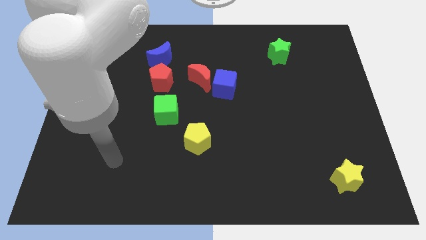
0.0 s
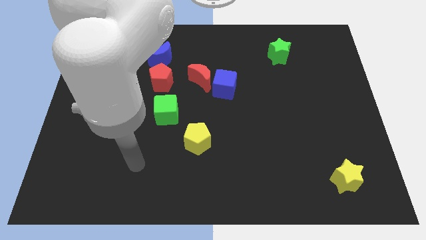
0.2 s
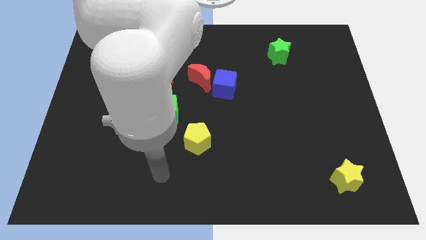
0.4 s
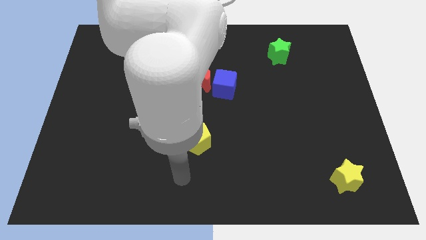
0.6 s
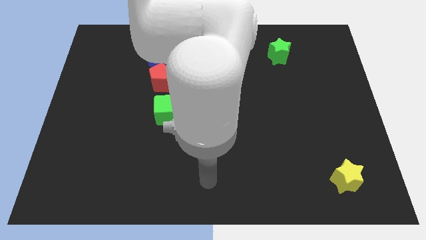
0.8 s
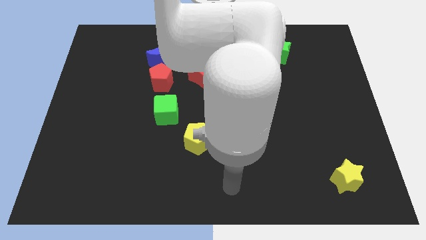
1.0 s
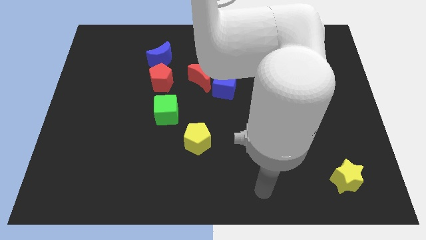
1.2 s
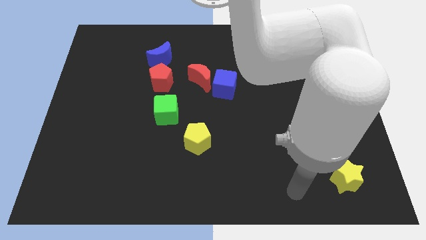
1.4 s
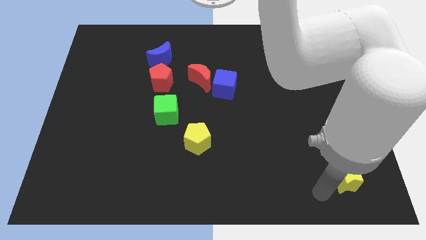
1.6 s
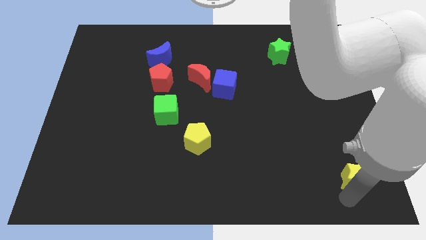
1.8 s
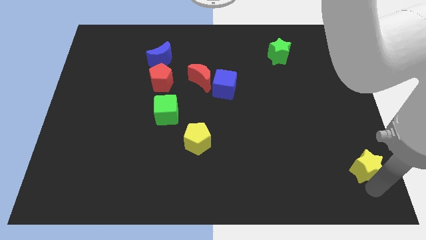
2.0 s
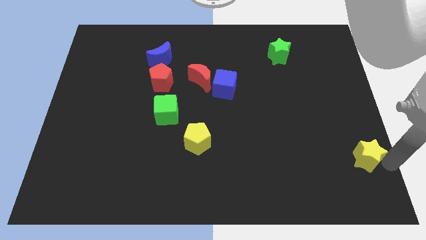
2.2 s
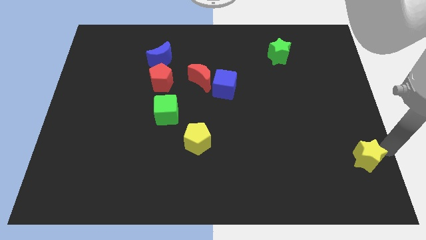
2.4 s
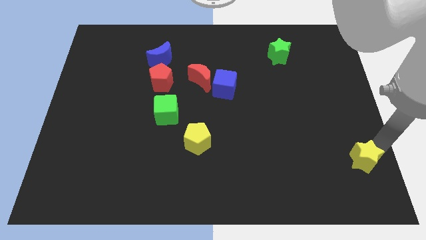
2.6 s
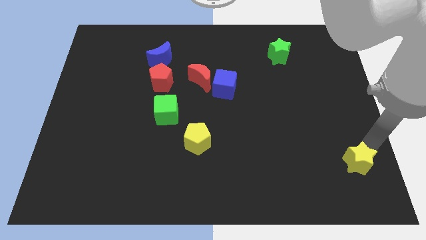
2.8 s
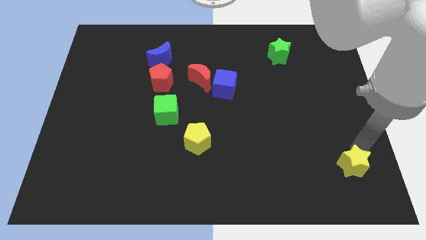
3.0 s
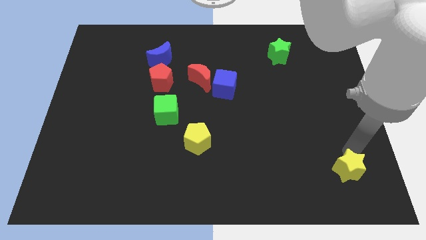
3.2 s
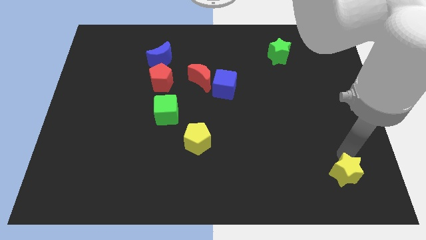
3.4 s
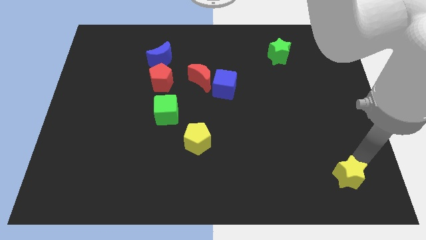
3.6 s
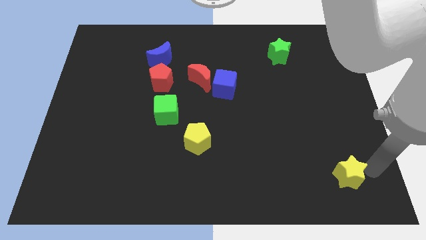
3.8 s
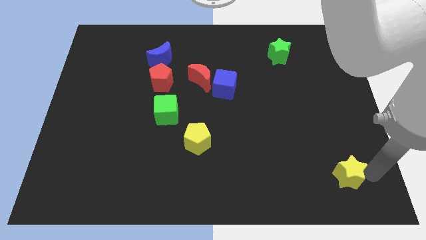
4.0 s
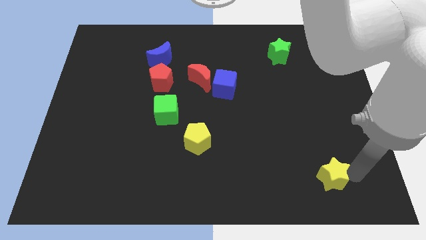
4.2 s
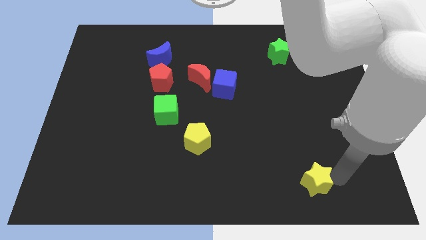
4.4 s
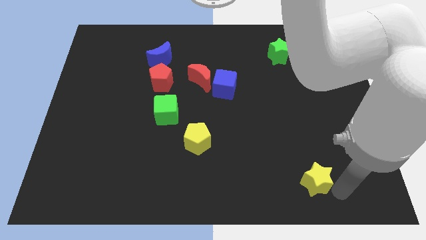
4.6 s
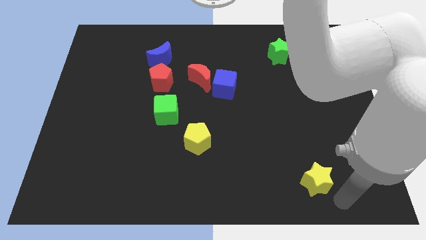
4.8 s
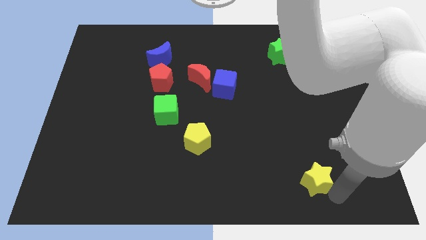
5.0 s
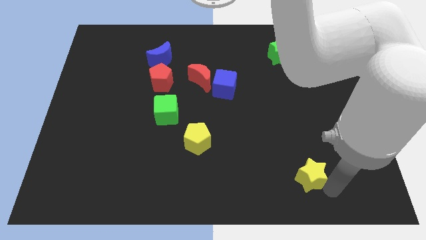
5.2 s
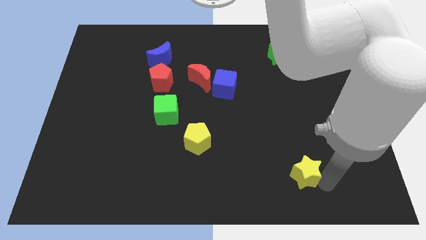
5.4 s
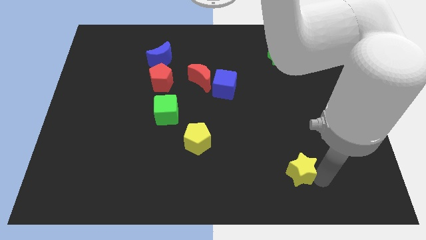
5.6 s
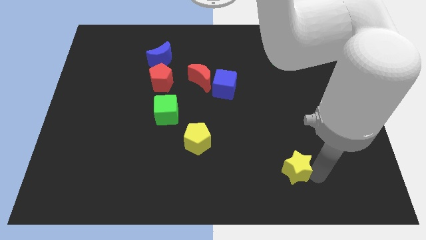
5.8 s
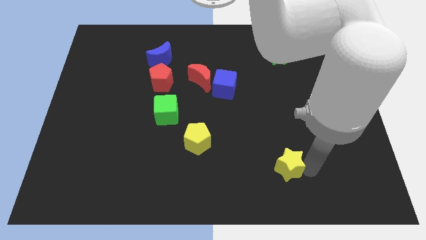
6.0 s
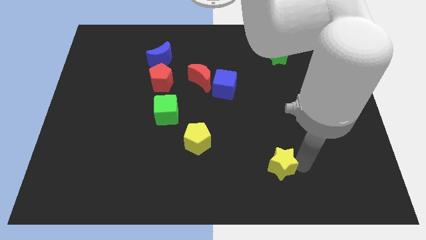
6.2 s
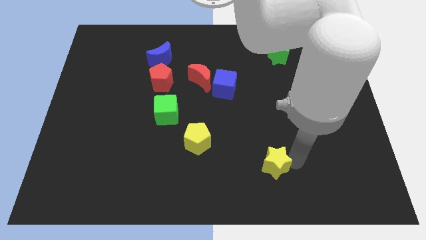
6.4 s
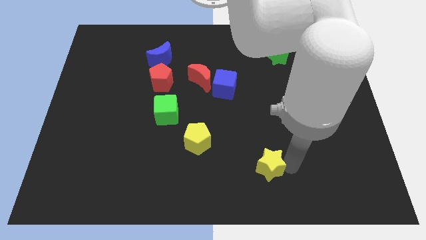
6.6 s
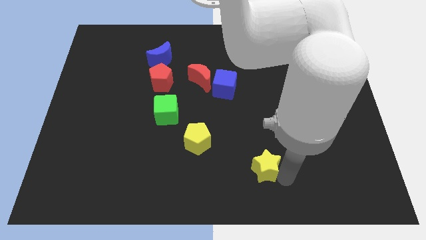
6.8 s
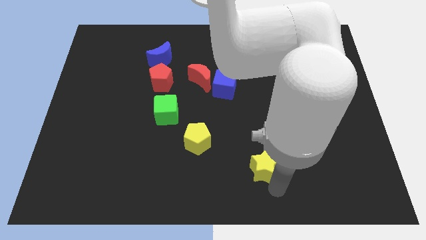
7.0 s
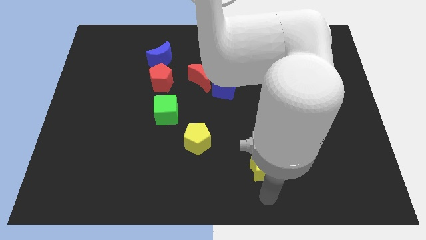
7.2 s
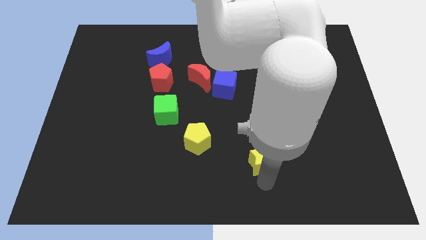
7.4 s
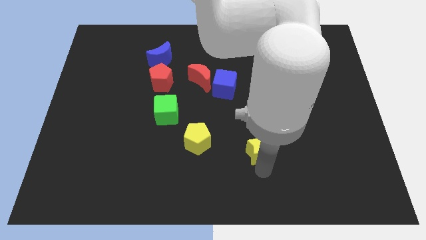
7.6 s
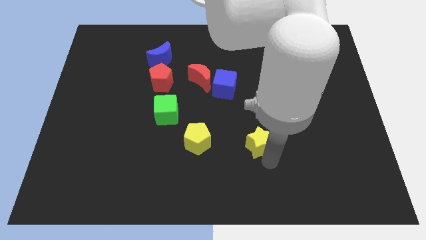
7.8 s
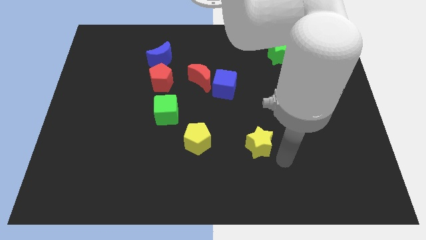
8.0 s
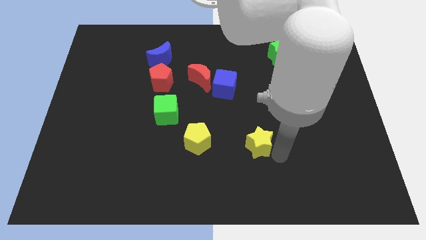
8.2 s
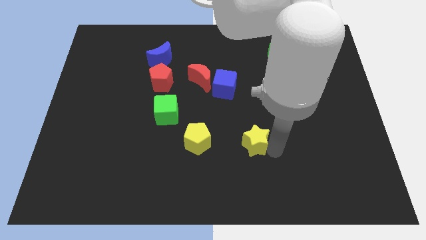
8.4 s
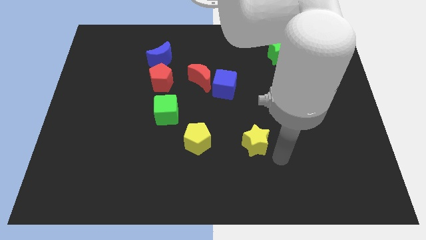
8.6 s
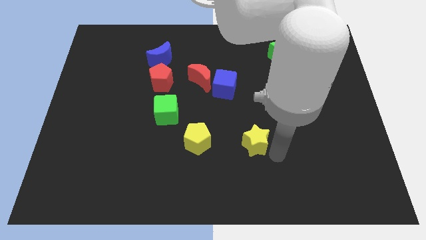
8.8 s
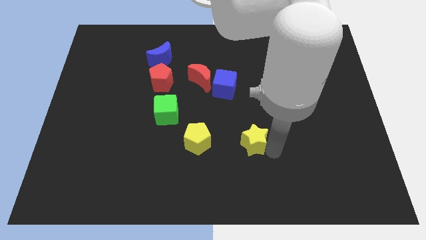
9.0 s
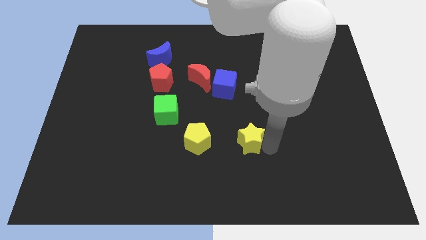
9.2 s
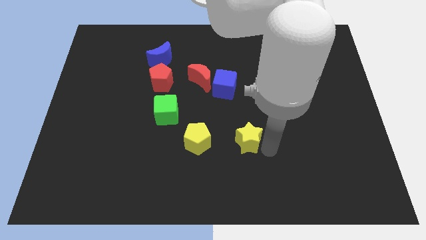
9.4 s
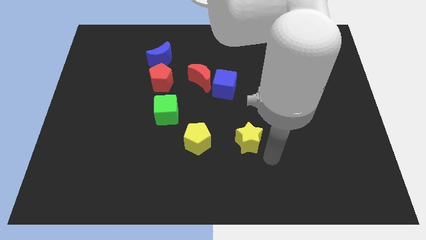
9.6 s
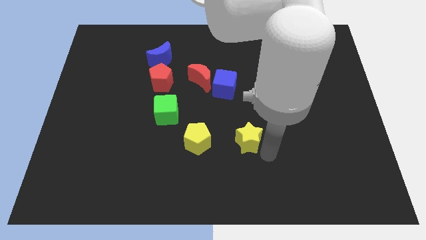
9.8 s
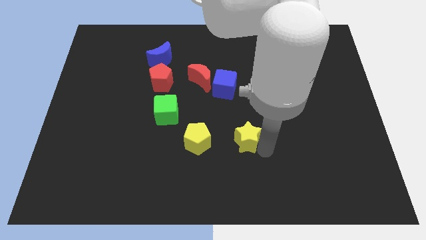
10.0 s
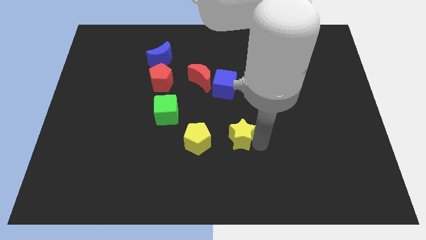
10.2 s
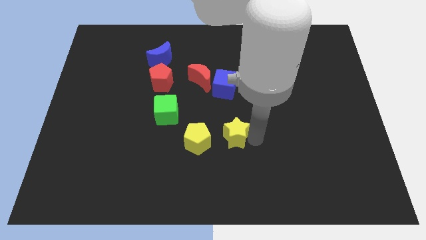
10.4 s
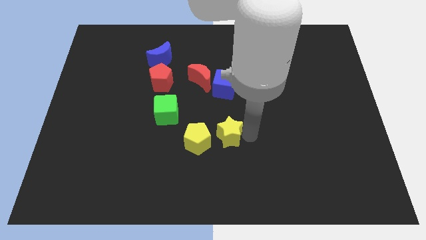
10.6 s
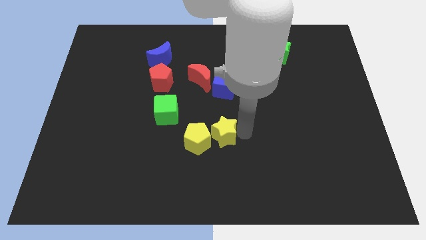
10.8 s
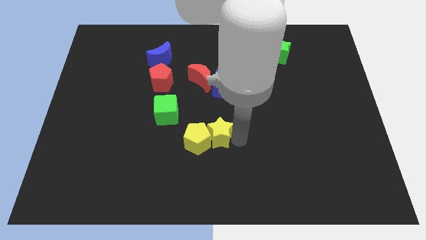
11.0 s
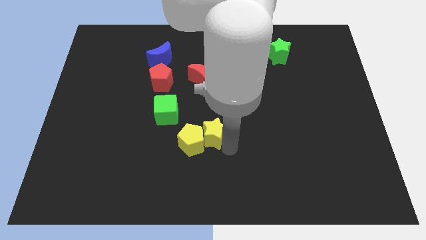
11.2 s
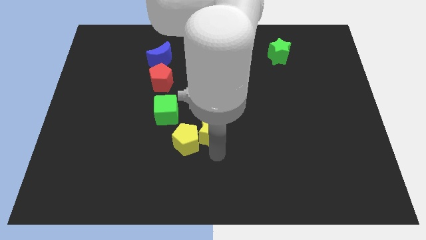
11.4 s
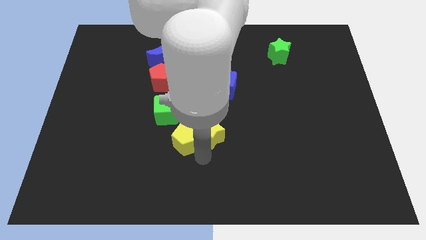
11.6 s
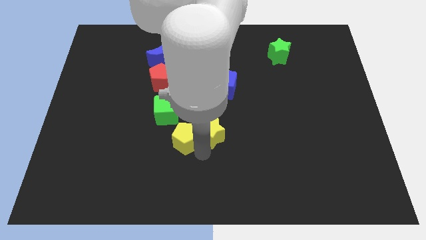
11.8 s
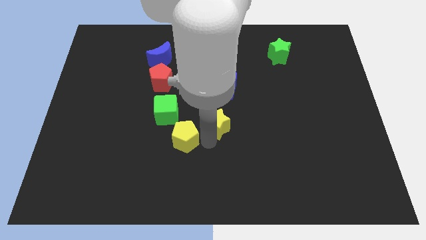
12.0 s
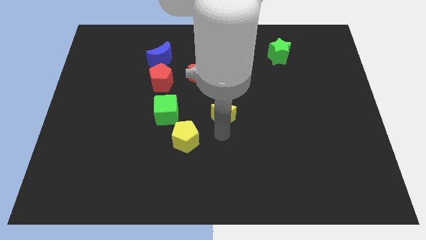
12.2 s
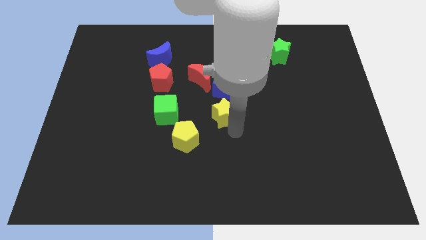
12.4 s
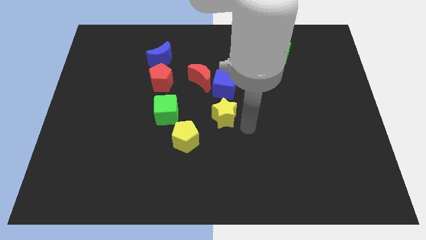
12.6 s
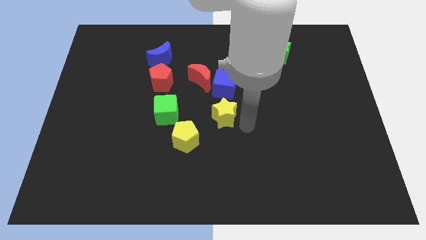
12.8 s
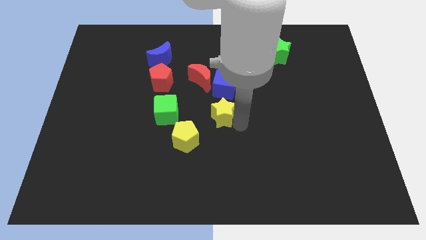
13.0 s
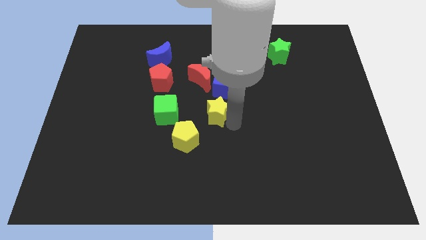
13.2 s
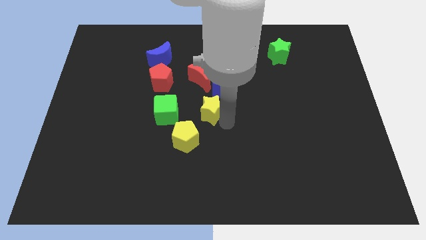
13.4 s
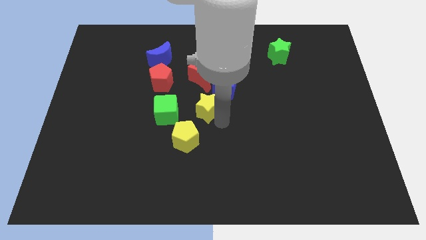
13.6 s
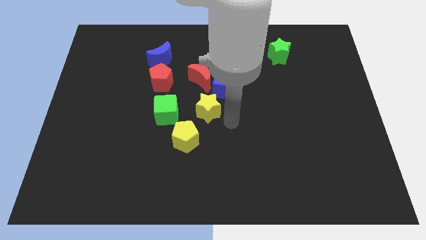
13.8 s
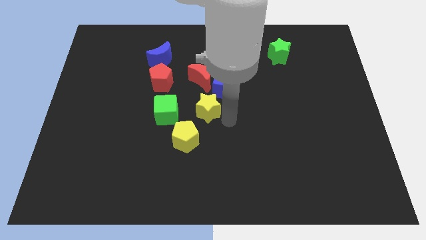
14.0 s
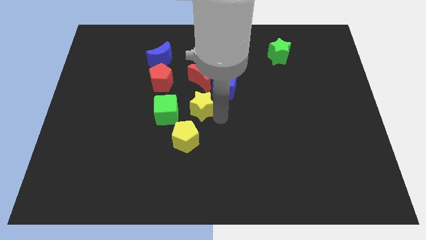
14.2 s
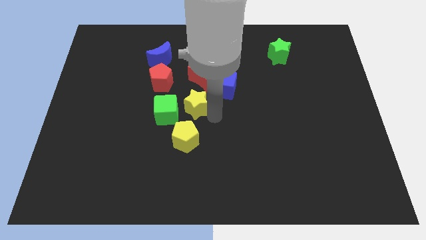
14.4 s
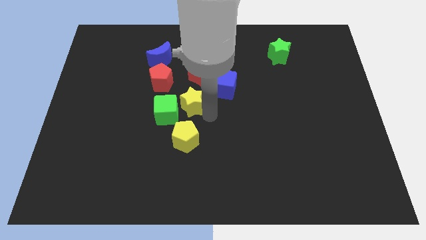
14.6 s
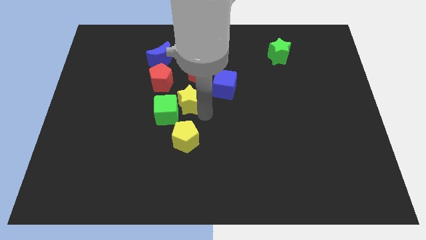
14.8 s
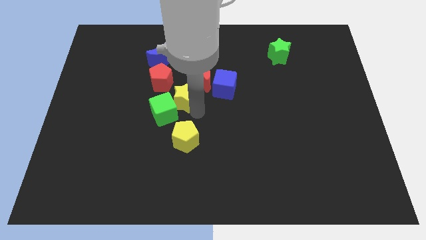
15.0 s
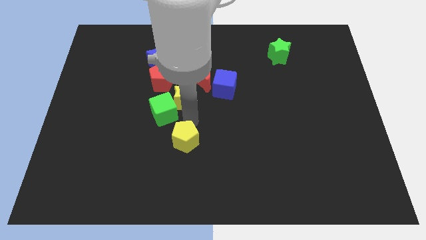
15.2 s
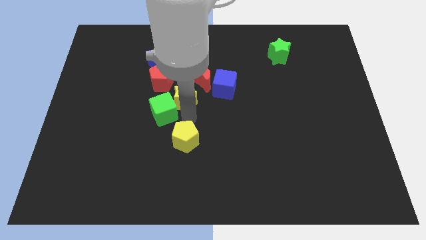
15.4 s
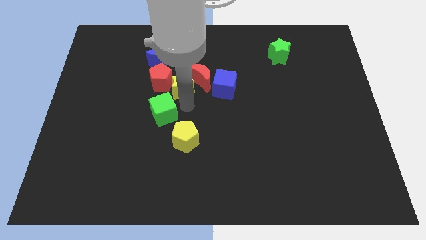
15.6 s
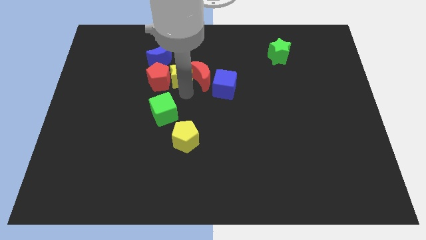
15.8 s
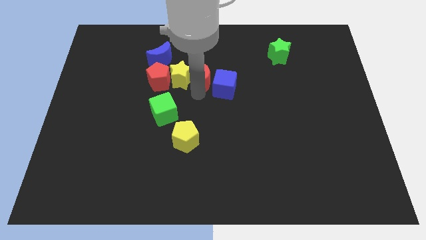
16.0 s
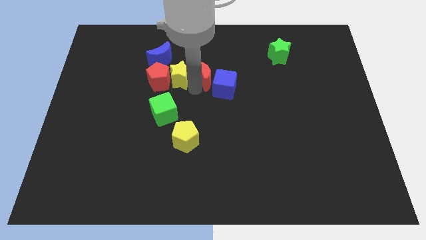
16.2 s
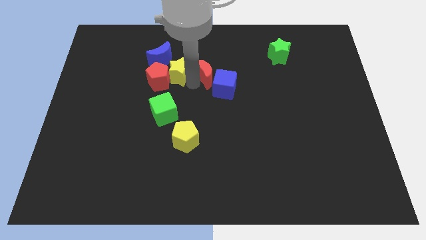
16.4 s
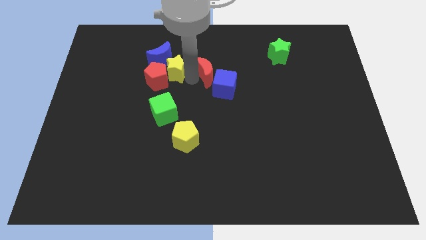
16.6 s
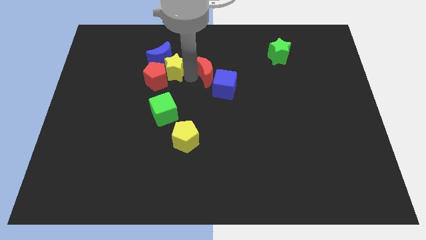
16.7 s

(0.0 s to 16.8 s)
slide the yellow star to the blue moon
